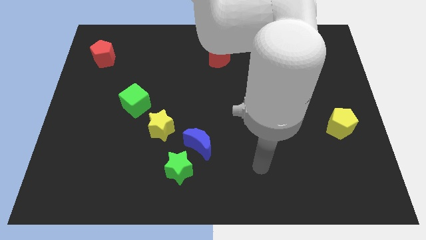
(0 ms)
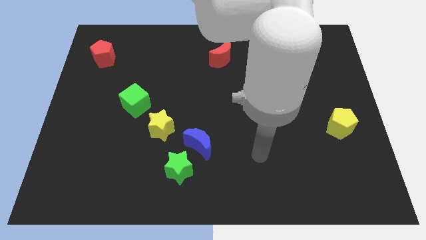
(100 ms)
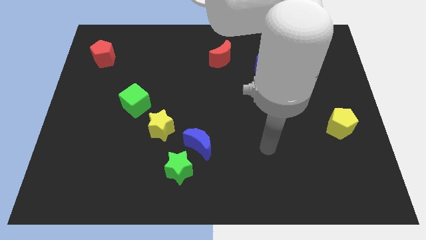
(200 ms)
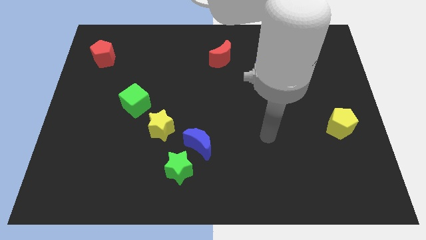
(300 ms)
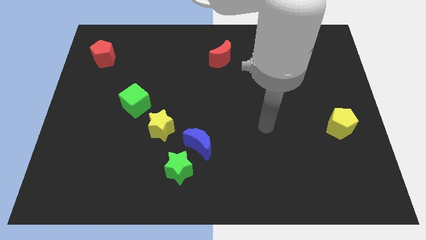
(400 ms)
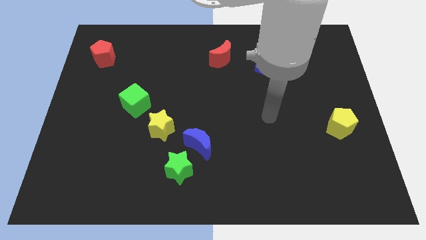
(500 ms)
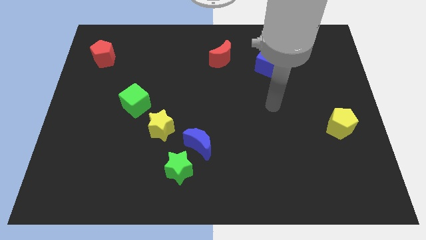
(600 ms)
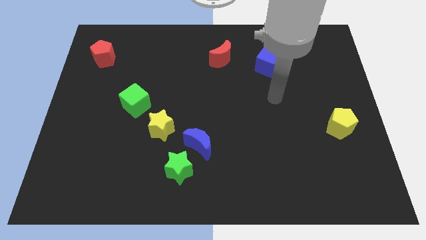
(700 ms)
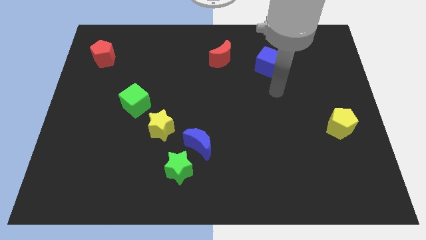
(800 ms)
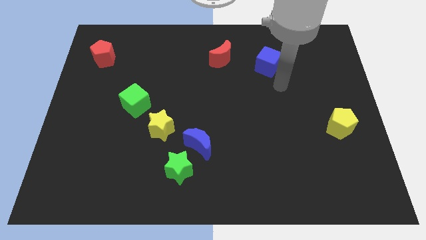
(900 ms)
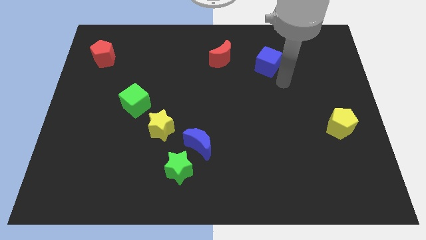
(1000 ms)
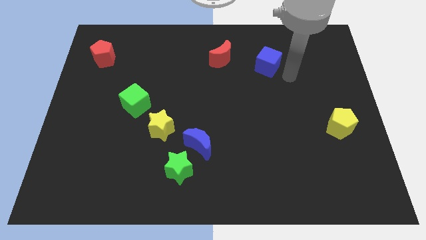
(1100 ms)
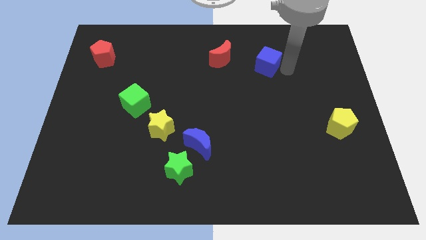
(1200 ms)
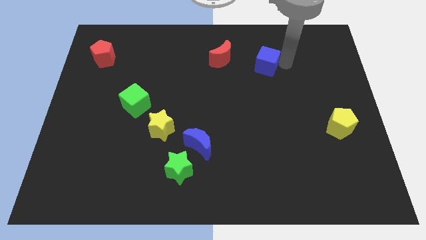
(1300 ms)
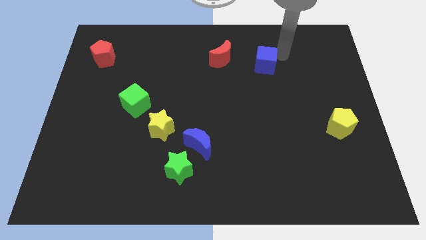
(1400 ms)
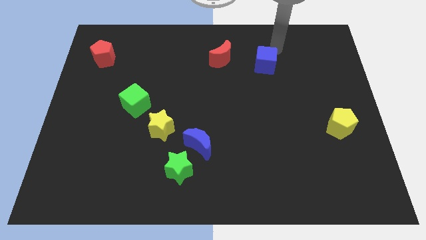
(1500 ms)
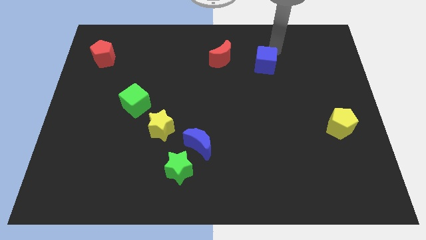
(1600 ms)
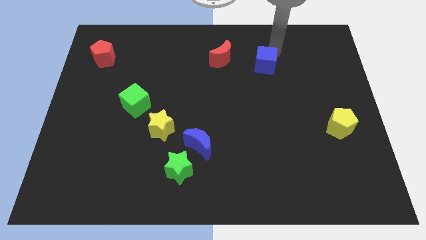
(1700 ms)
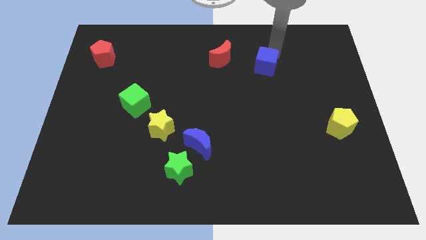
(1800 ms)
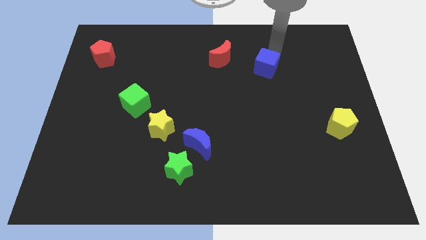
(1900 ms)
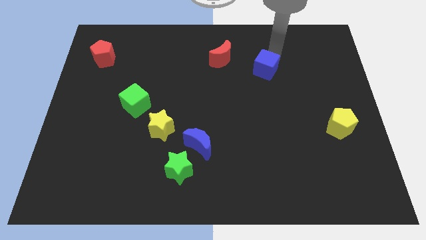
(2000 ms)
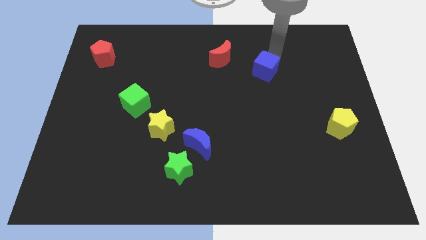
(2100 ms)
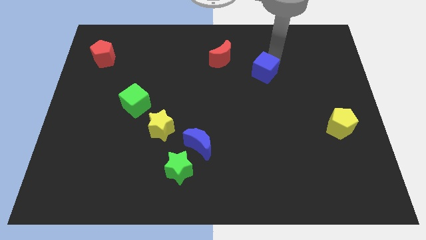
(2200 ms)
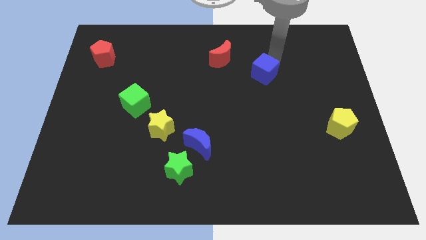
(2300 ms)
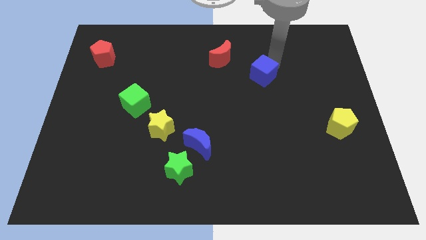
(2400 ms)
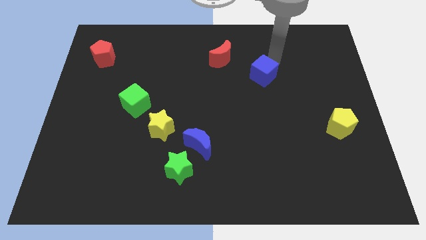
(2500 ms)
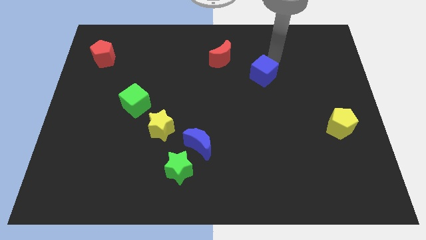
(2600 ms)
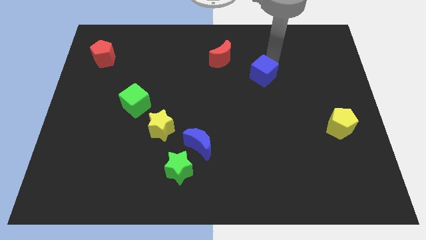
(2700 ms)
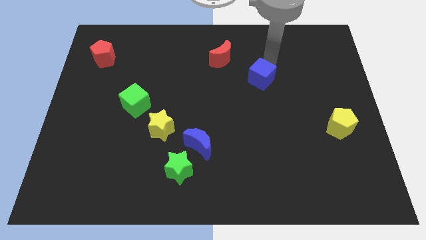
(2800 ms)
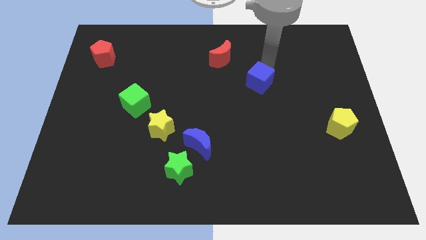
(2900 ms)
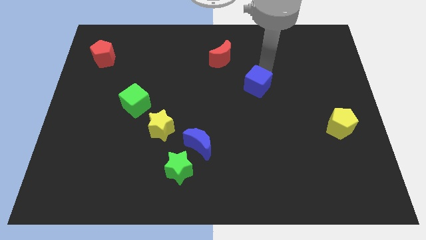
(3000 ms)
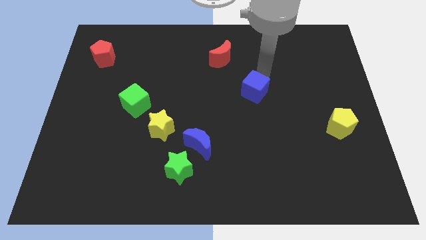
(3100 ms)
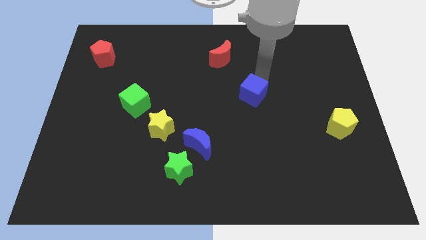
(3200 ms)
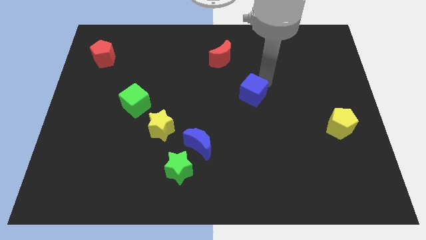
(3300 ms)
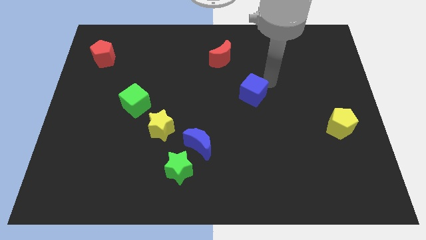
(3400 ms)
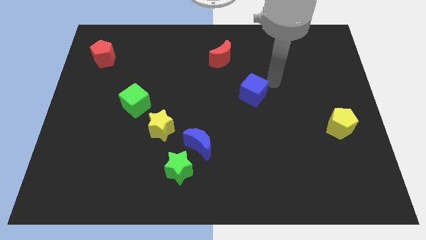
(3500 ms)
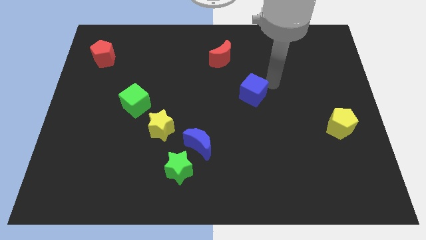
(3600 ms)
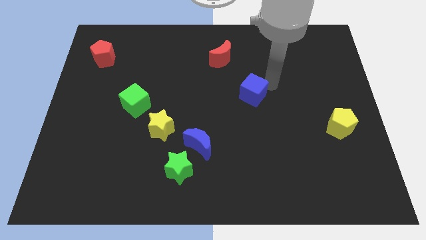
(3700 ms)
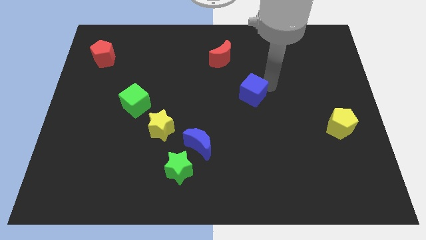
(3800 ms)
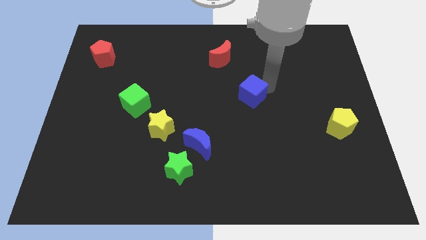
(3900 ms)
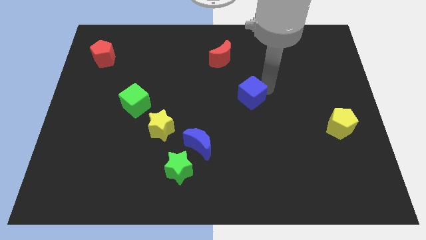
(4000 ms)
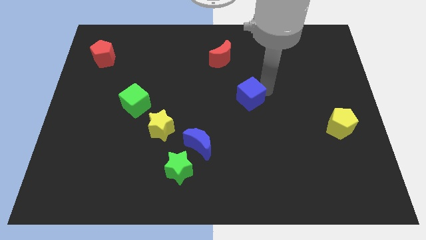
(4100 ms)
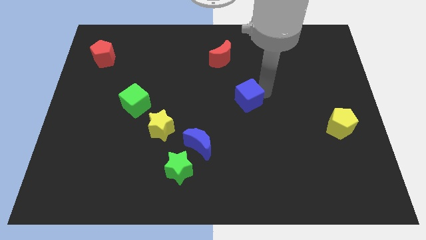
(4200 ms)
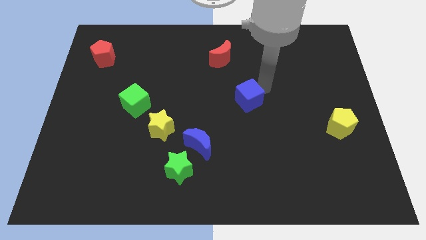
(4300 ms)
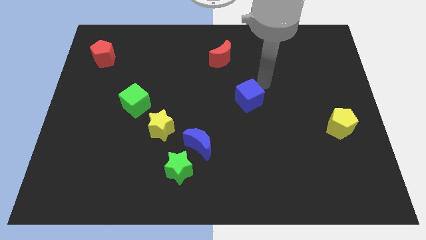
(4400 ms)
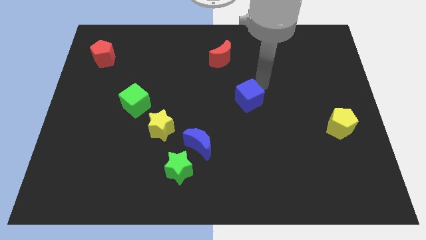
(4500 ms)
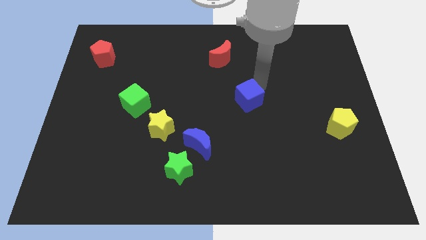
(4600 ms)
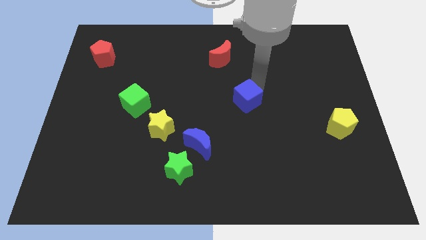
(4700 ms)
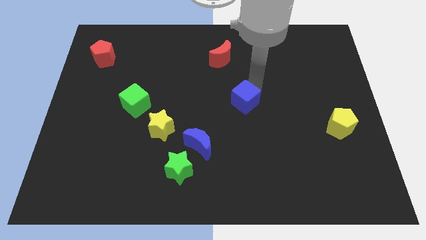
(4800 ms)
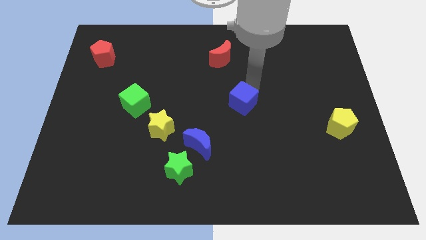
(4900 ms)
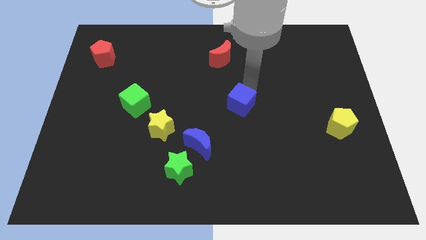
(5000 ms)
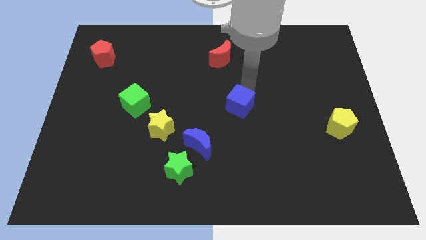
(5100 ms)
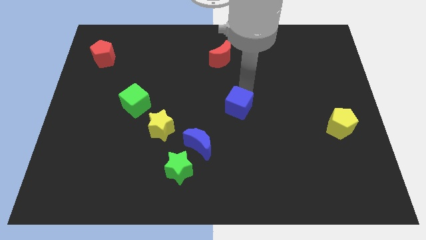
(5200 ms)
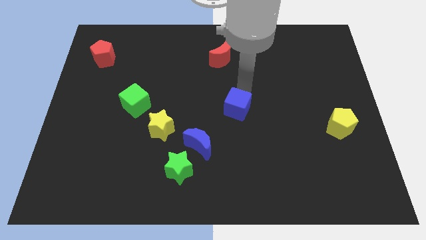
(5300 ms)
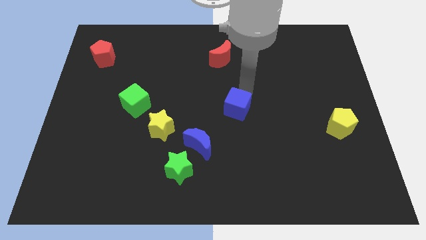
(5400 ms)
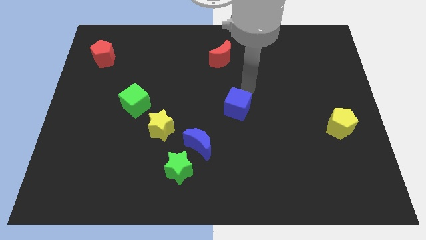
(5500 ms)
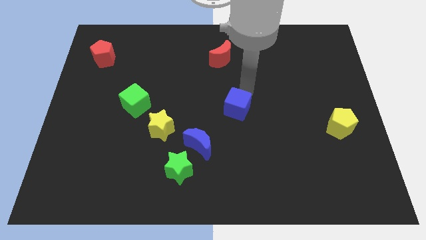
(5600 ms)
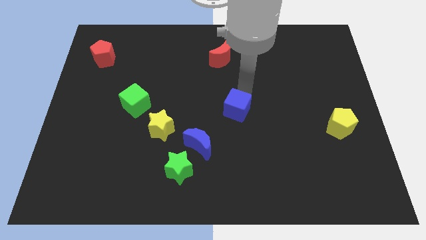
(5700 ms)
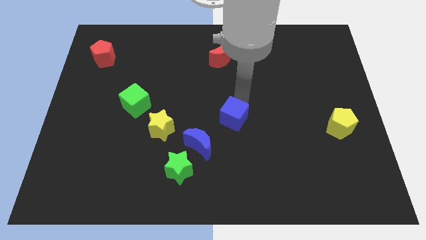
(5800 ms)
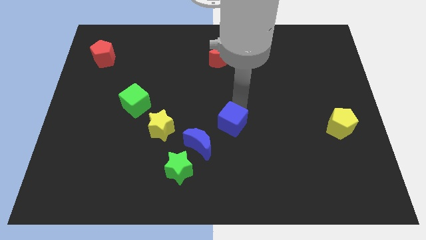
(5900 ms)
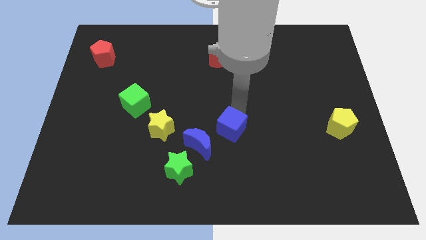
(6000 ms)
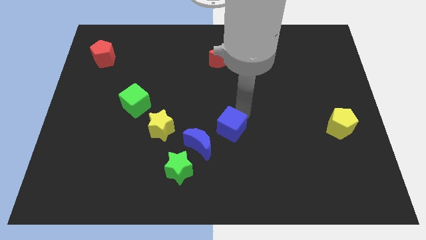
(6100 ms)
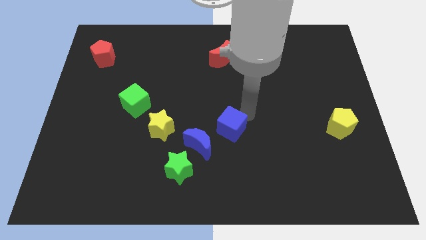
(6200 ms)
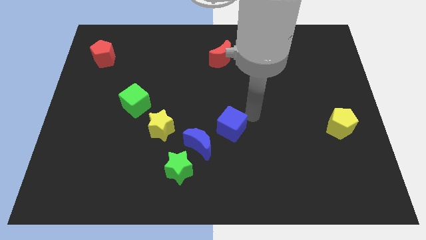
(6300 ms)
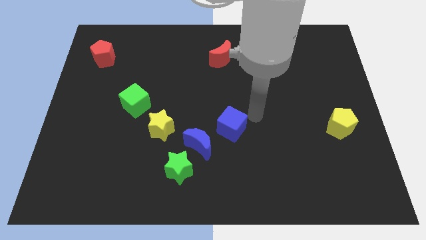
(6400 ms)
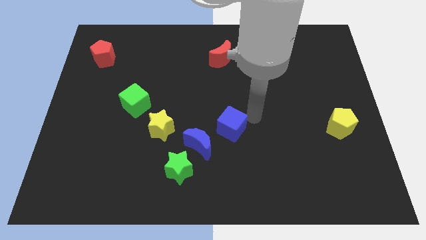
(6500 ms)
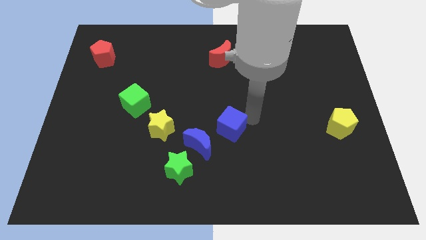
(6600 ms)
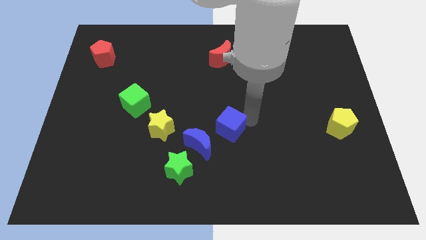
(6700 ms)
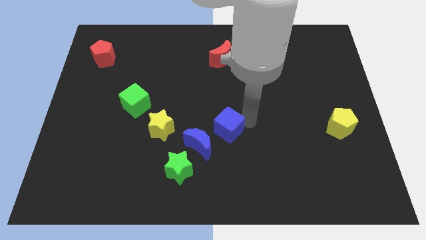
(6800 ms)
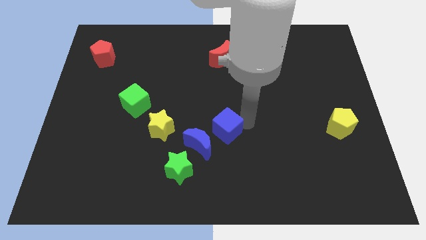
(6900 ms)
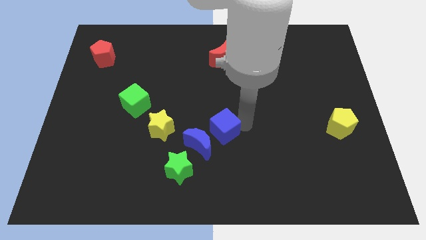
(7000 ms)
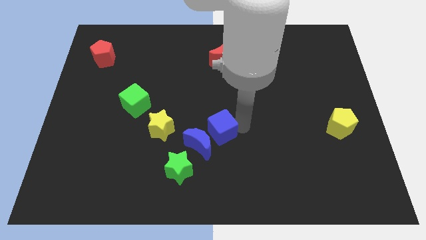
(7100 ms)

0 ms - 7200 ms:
push the blue cube close to the blue moon

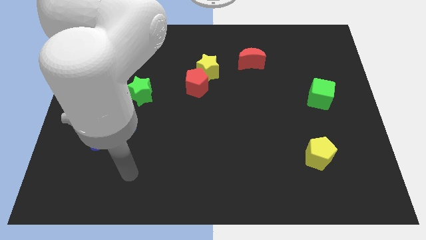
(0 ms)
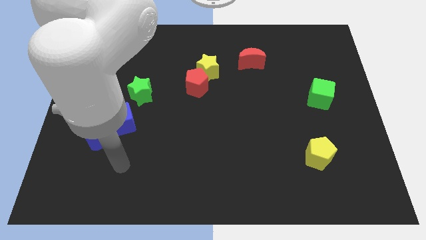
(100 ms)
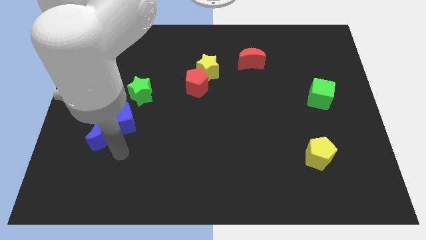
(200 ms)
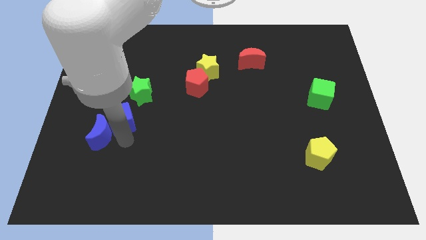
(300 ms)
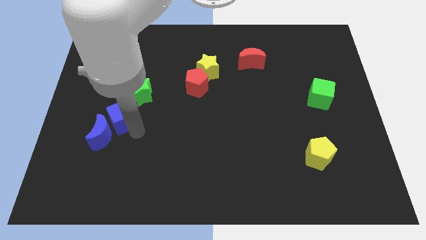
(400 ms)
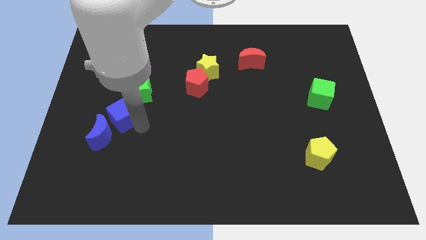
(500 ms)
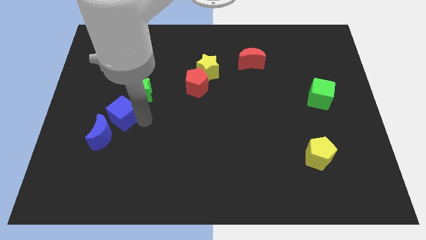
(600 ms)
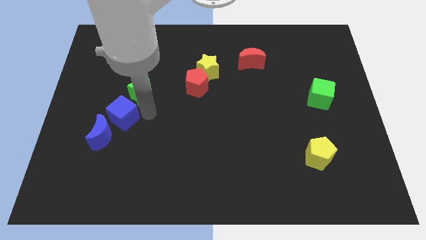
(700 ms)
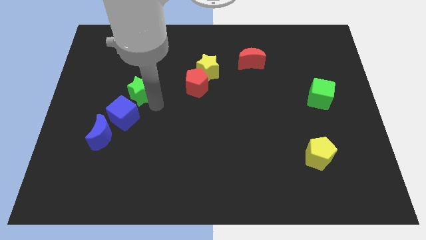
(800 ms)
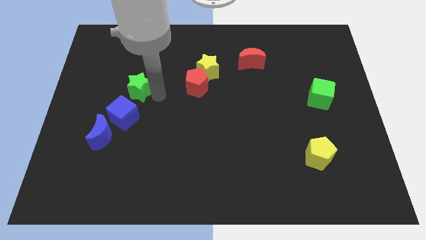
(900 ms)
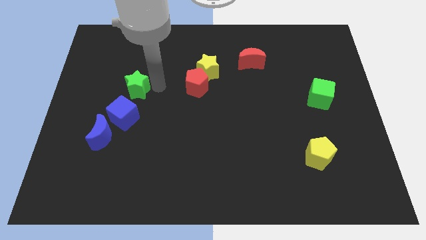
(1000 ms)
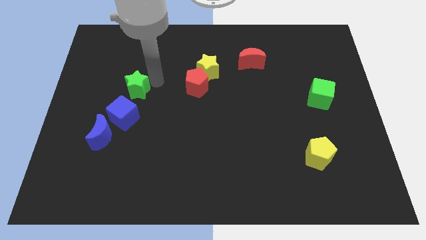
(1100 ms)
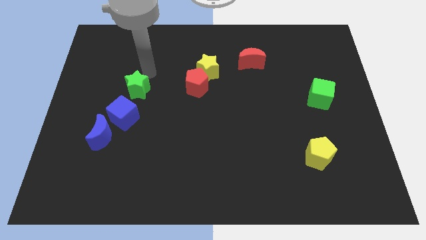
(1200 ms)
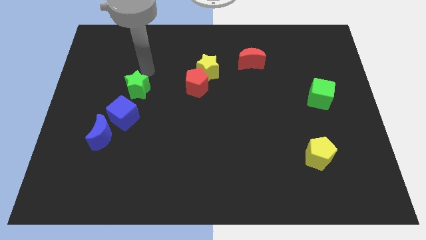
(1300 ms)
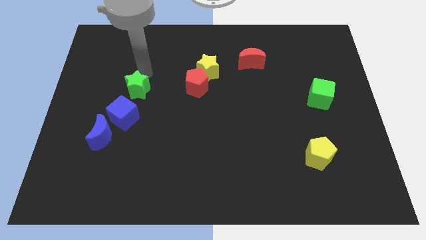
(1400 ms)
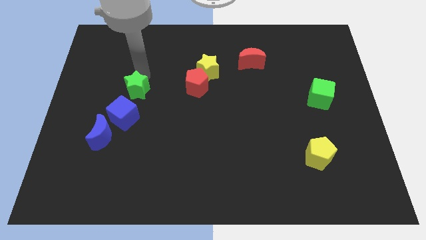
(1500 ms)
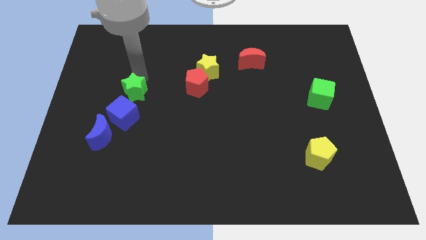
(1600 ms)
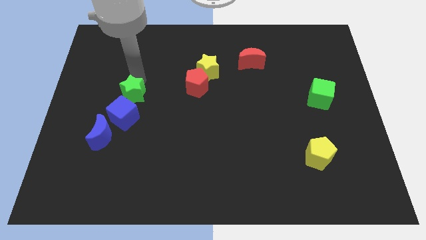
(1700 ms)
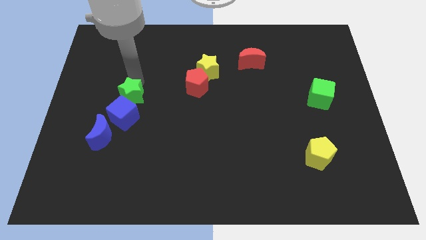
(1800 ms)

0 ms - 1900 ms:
push the green star close to the blue cube
